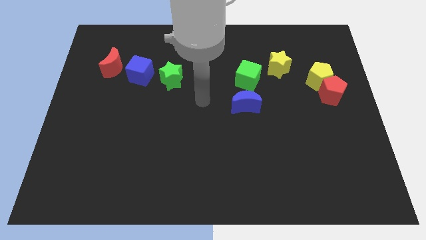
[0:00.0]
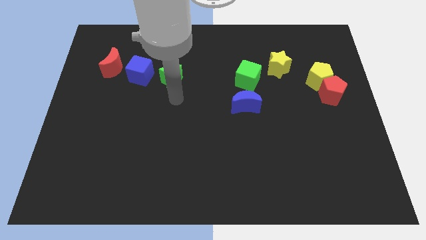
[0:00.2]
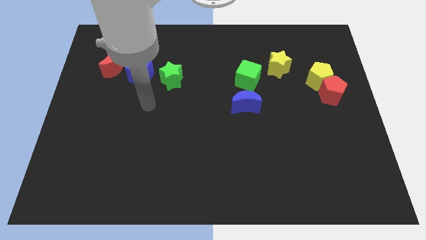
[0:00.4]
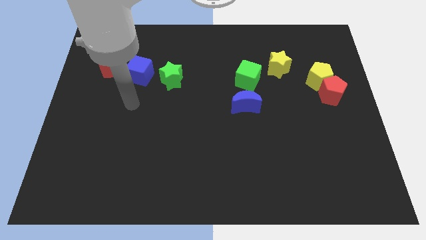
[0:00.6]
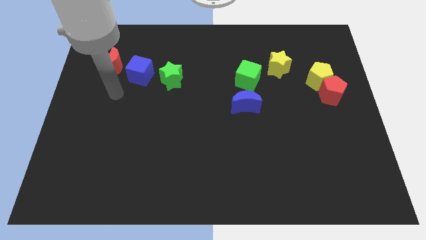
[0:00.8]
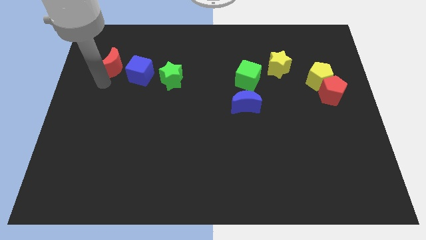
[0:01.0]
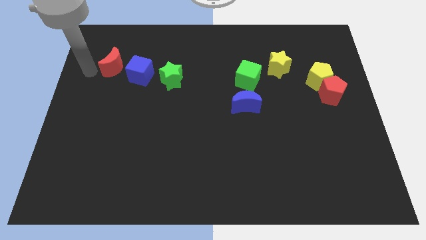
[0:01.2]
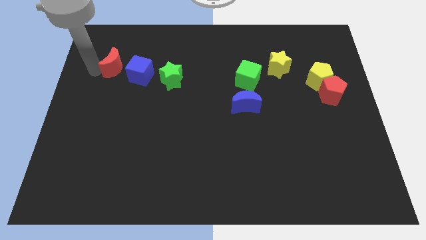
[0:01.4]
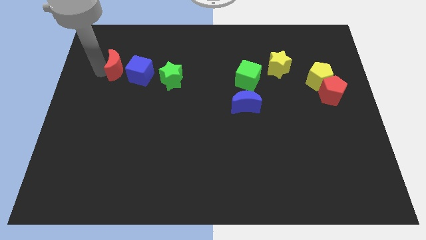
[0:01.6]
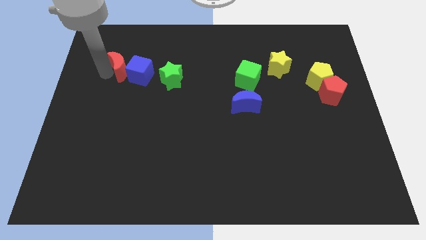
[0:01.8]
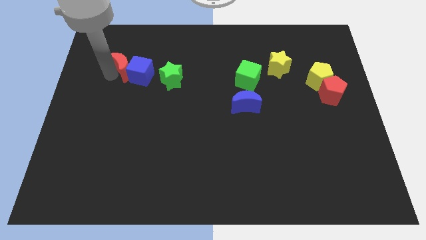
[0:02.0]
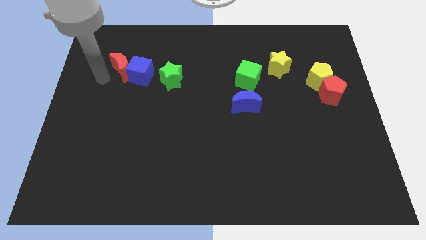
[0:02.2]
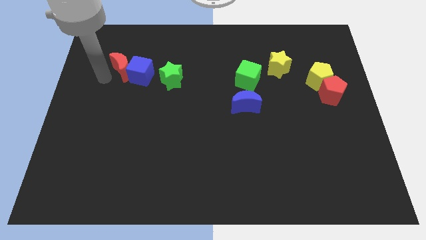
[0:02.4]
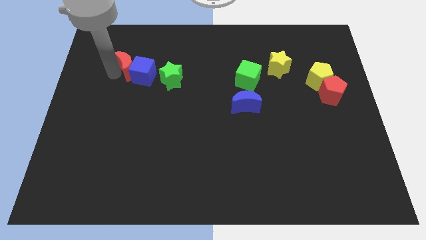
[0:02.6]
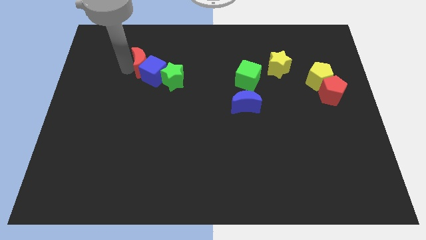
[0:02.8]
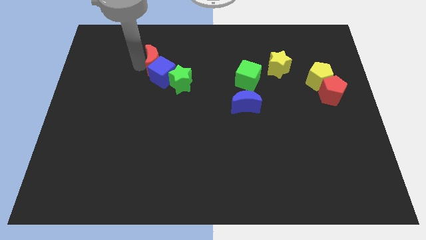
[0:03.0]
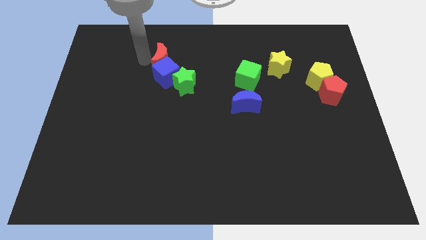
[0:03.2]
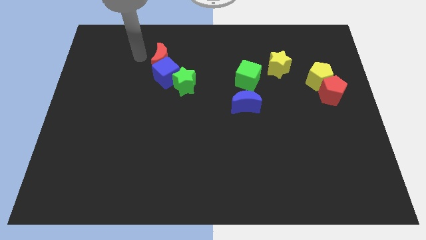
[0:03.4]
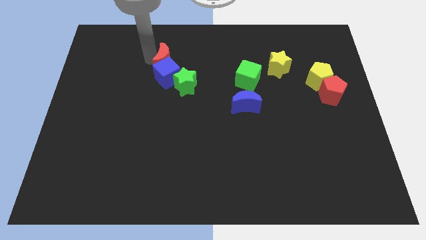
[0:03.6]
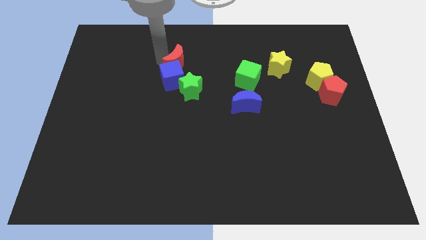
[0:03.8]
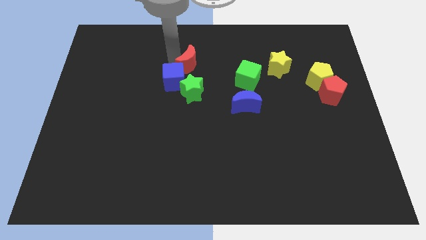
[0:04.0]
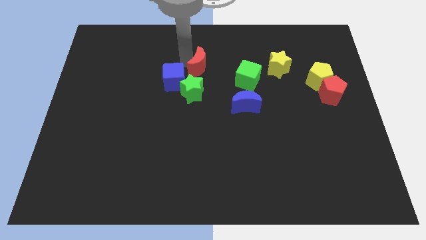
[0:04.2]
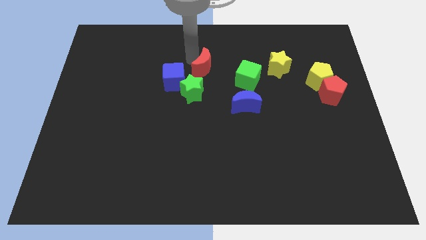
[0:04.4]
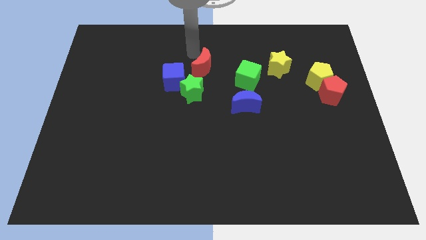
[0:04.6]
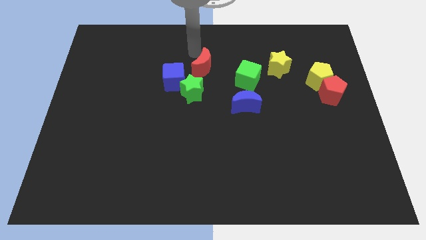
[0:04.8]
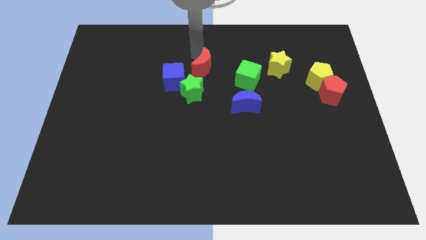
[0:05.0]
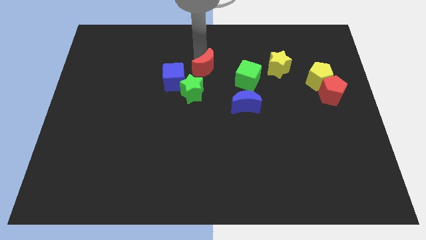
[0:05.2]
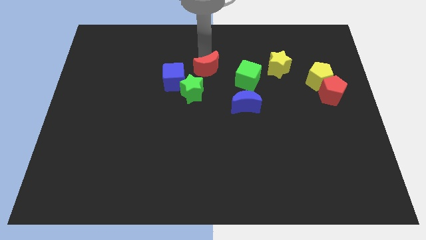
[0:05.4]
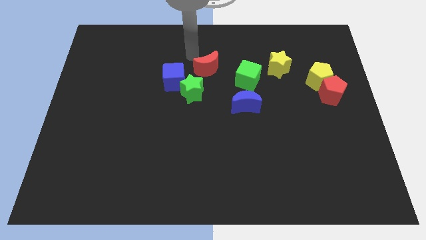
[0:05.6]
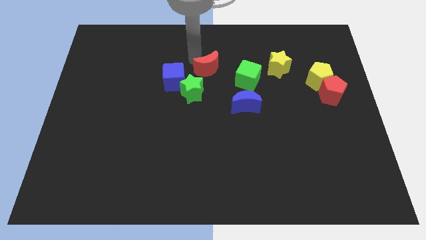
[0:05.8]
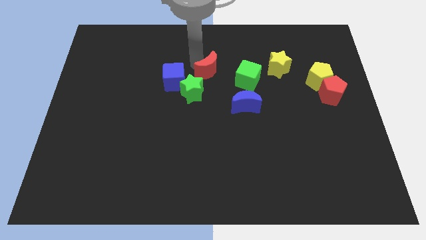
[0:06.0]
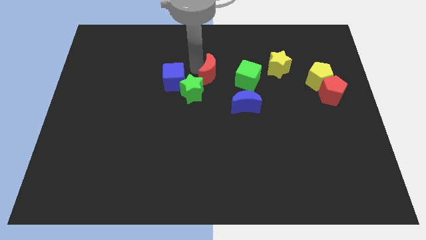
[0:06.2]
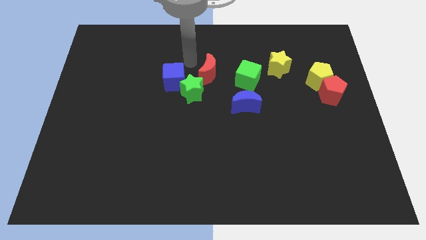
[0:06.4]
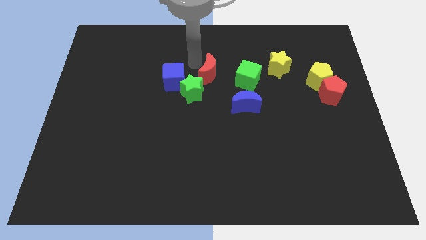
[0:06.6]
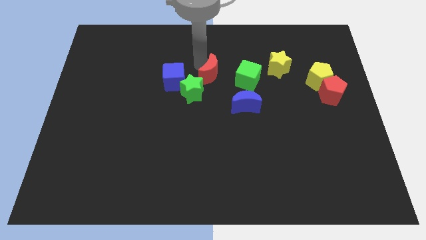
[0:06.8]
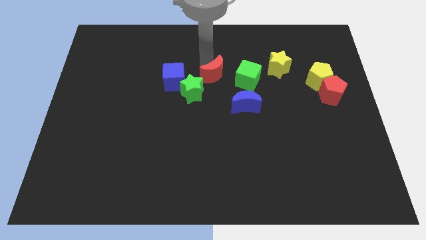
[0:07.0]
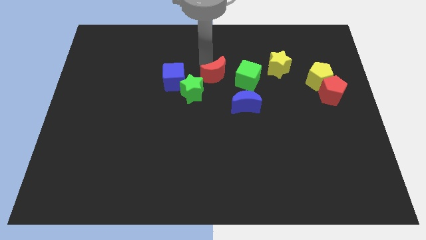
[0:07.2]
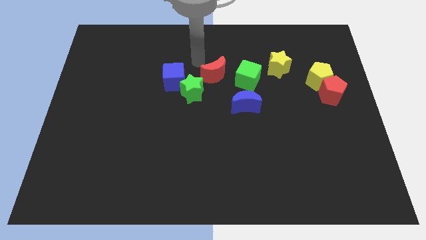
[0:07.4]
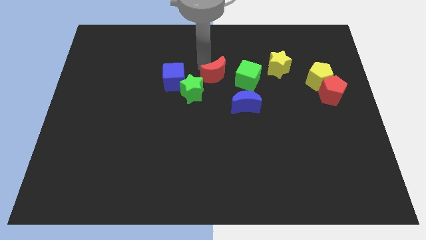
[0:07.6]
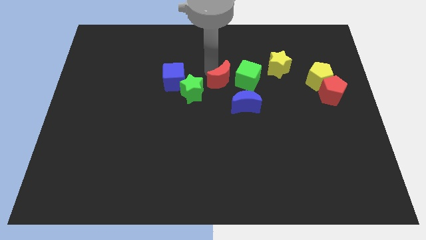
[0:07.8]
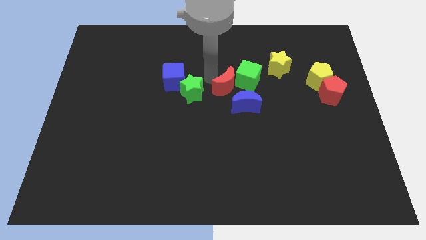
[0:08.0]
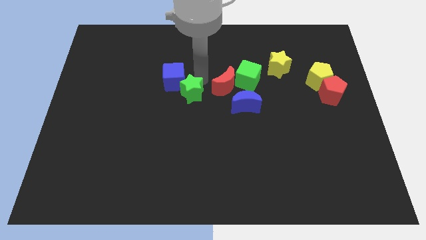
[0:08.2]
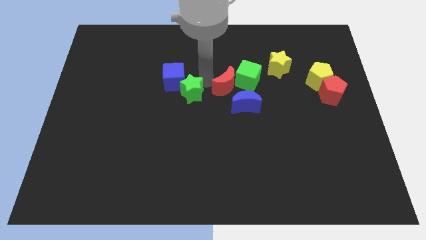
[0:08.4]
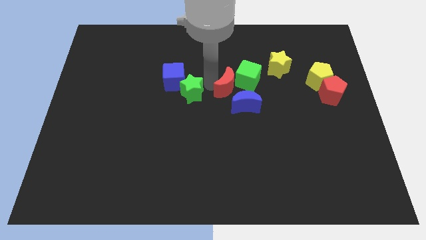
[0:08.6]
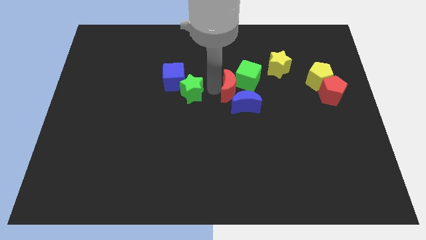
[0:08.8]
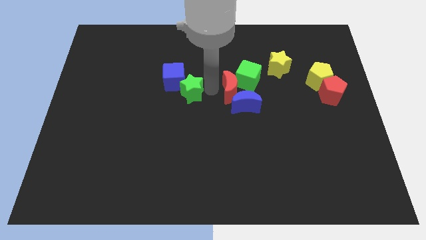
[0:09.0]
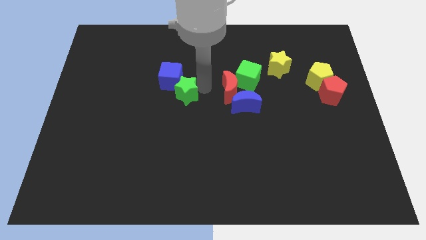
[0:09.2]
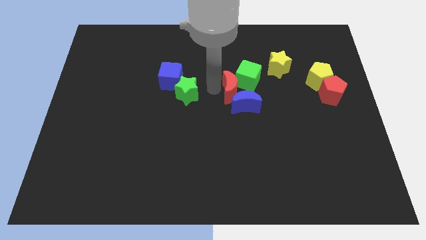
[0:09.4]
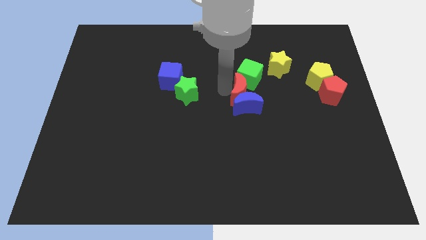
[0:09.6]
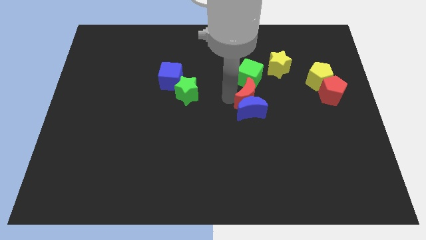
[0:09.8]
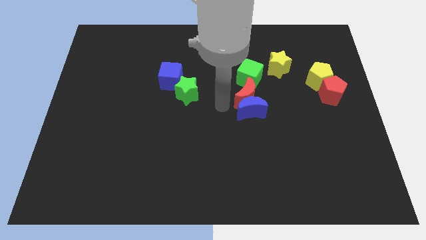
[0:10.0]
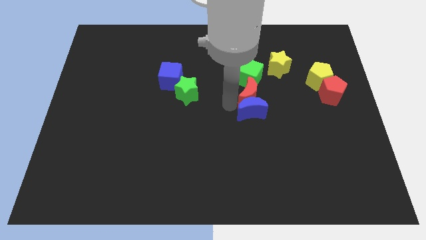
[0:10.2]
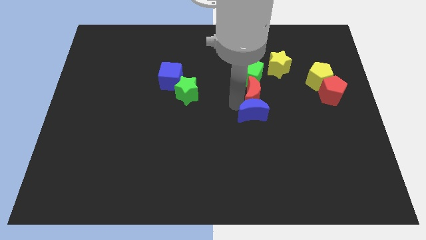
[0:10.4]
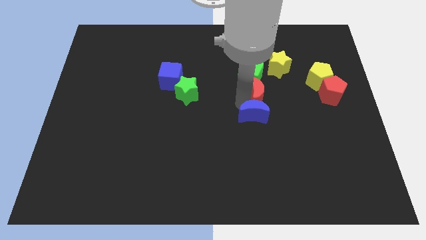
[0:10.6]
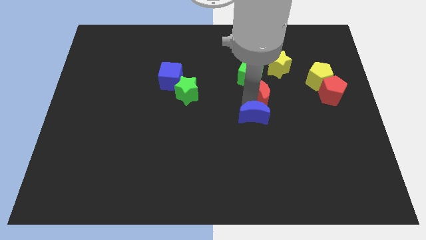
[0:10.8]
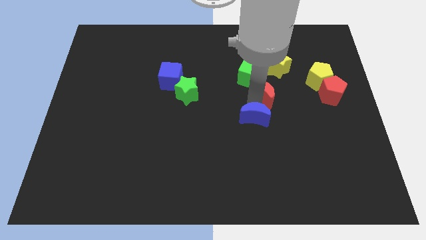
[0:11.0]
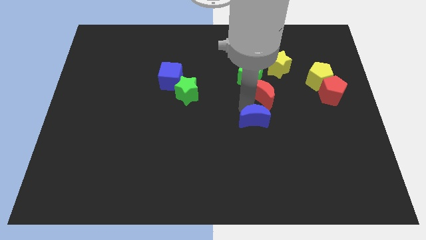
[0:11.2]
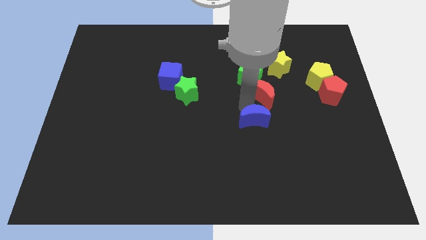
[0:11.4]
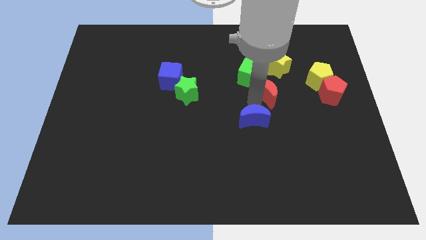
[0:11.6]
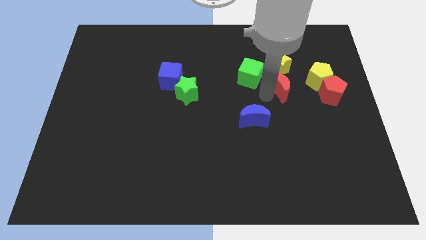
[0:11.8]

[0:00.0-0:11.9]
put the red moon right of the green cube

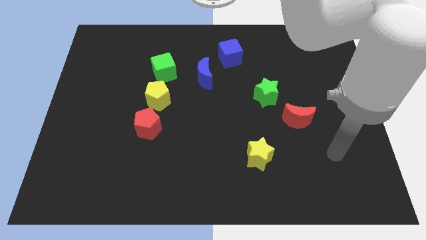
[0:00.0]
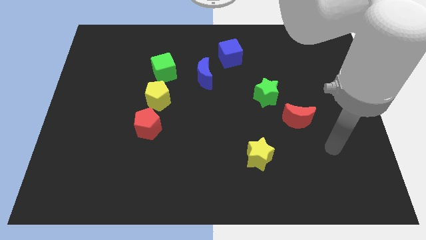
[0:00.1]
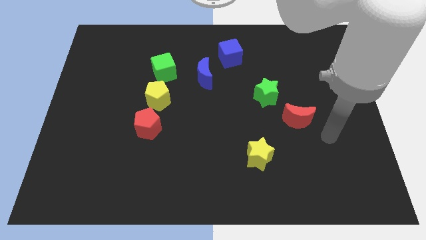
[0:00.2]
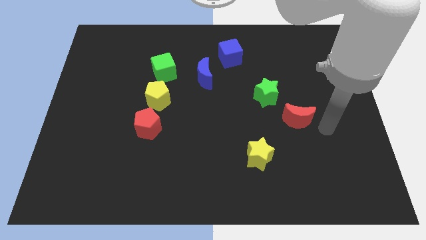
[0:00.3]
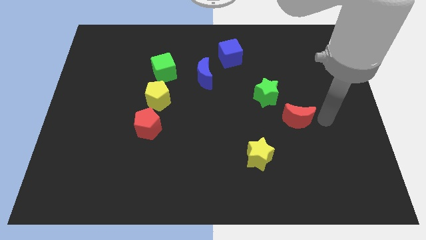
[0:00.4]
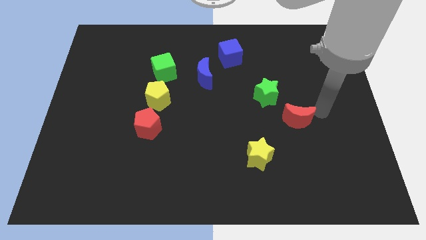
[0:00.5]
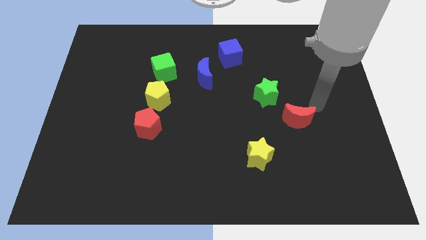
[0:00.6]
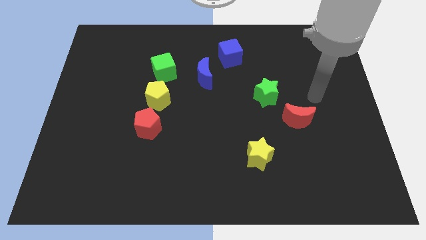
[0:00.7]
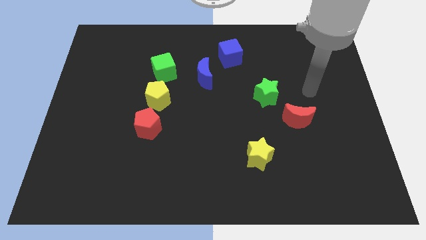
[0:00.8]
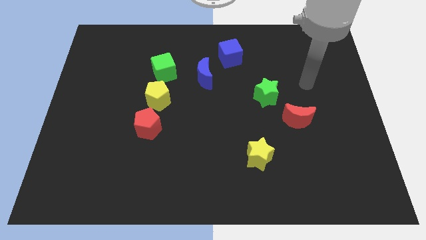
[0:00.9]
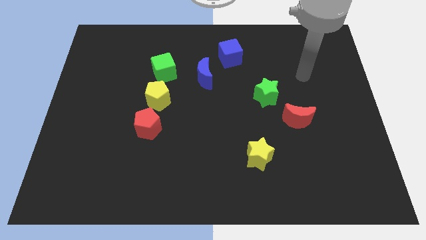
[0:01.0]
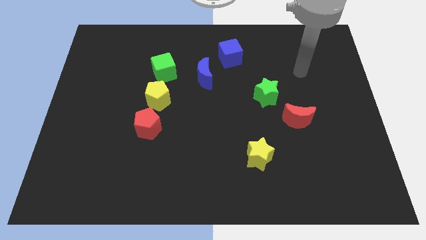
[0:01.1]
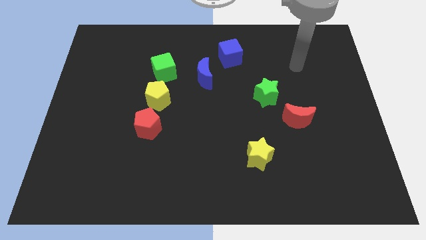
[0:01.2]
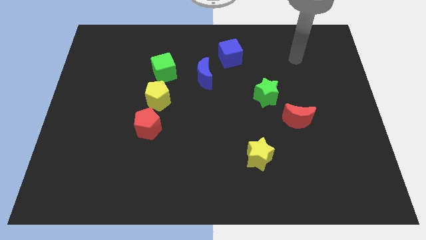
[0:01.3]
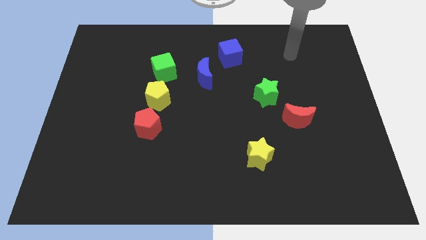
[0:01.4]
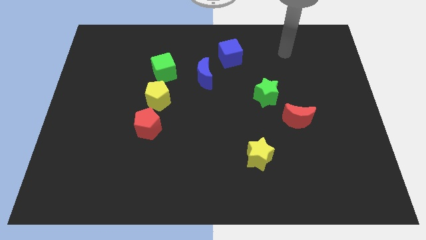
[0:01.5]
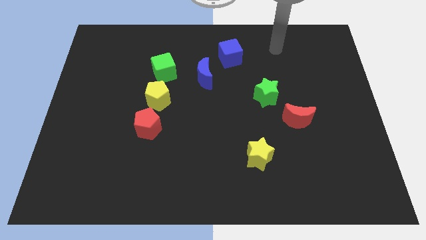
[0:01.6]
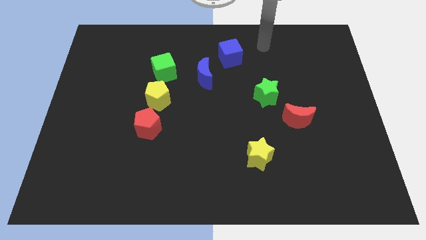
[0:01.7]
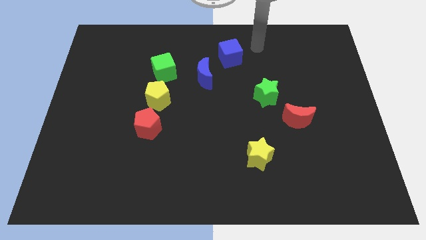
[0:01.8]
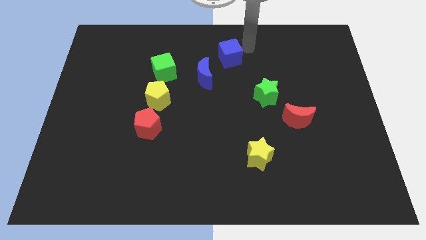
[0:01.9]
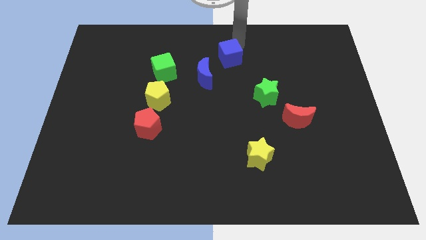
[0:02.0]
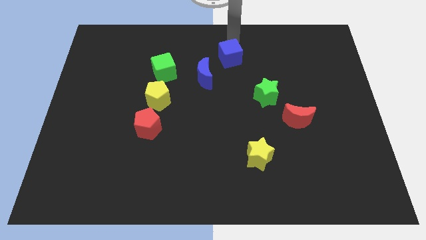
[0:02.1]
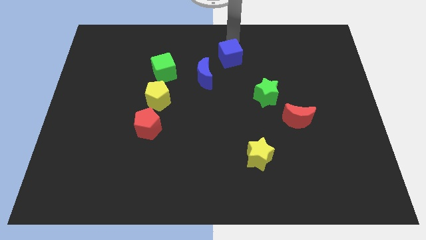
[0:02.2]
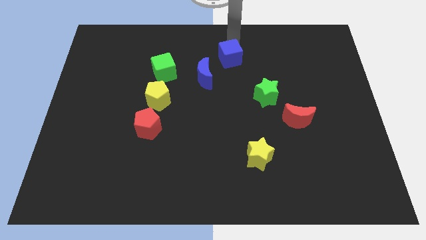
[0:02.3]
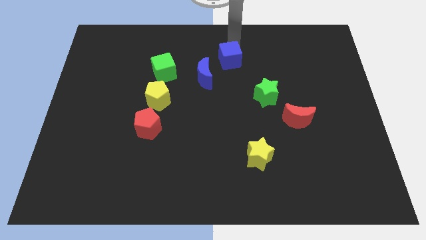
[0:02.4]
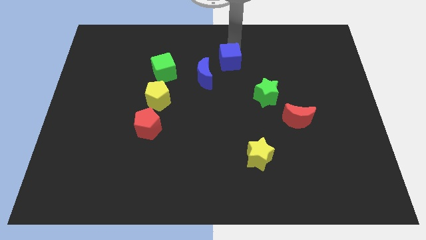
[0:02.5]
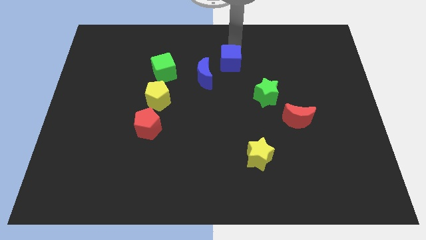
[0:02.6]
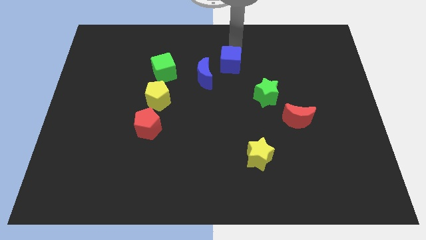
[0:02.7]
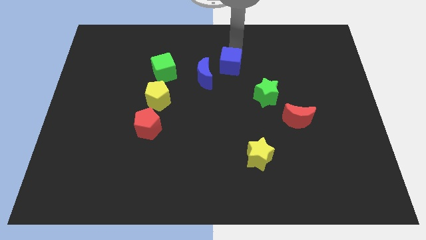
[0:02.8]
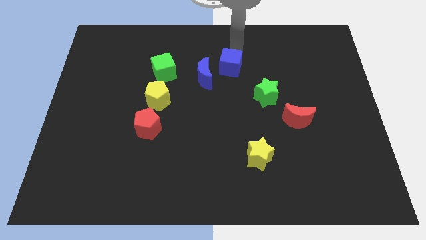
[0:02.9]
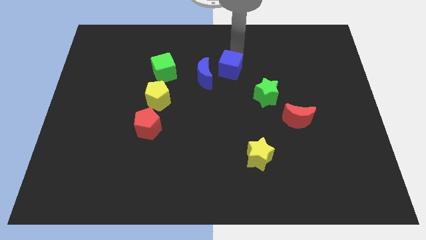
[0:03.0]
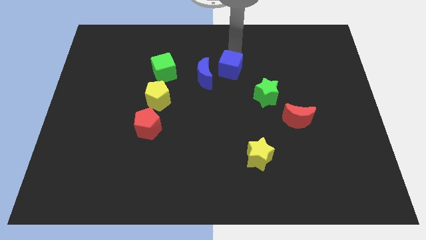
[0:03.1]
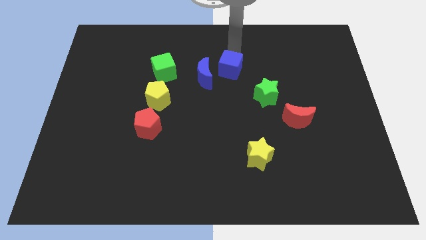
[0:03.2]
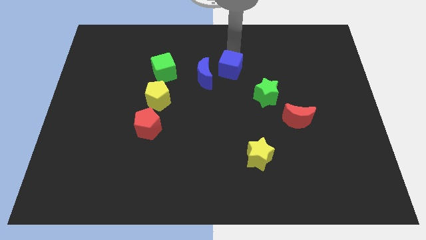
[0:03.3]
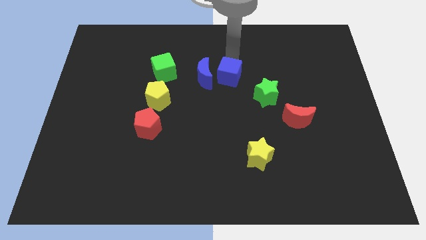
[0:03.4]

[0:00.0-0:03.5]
push the blue cube diagonally down and to the right of the blue moon
